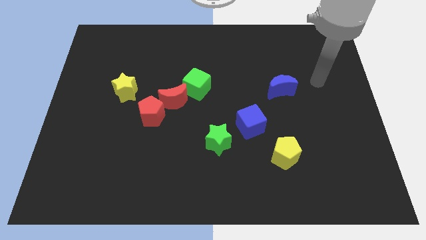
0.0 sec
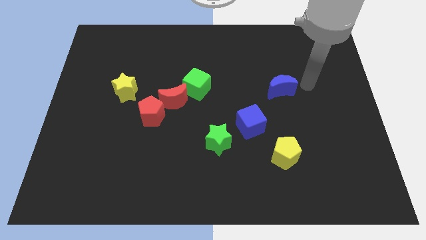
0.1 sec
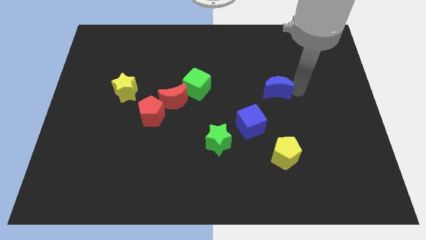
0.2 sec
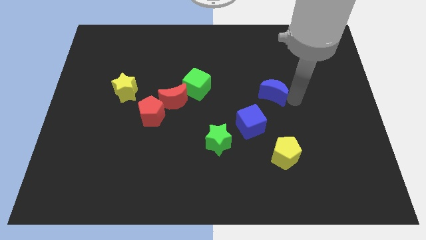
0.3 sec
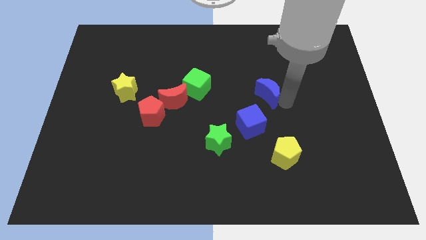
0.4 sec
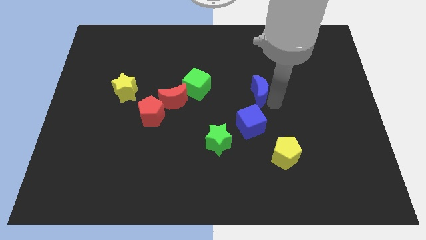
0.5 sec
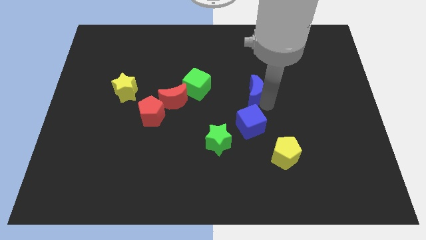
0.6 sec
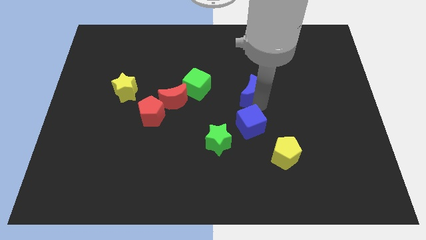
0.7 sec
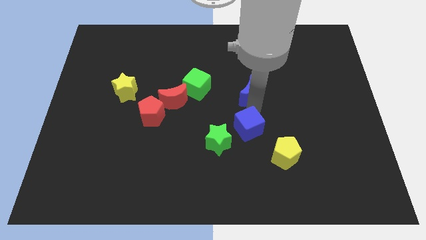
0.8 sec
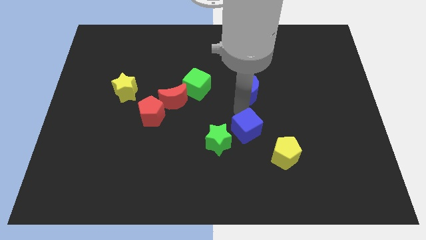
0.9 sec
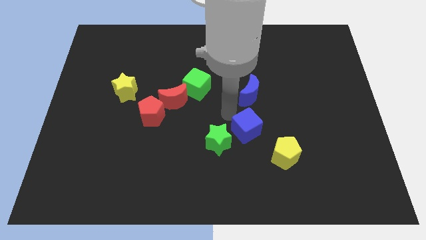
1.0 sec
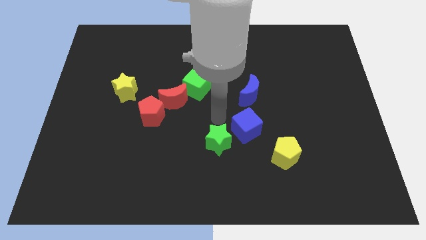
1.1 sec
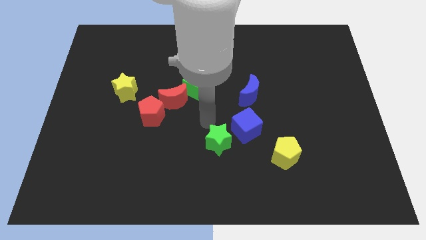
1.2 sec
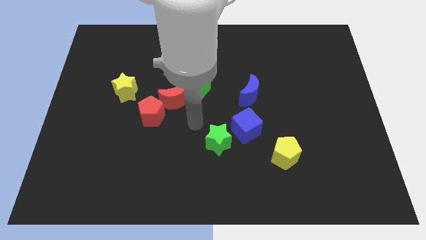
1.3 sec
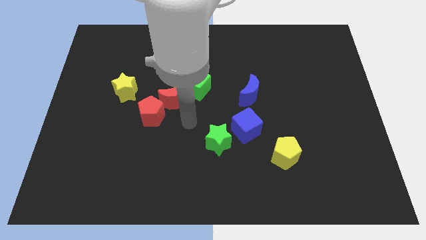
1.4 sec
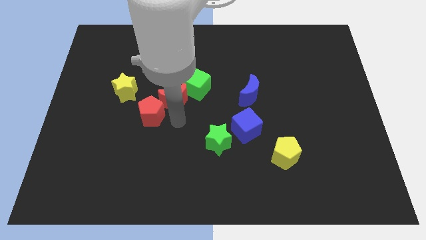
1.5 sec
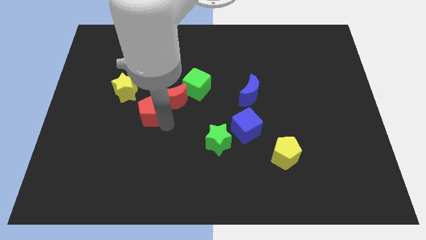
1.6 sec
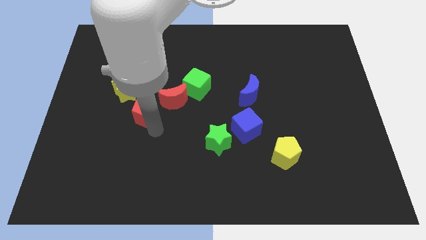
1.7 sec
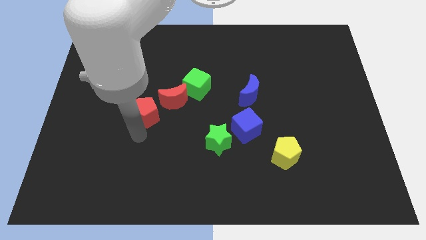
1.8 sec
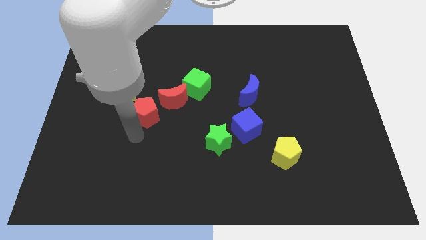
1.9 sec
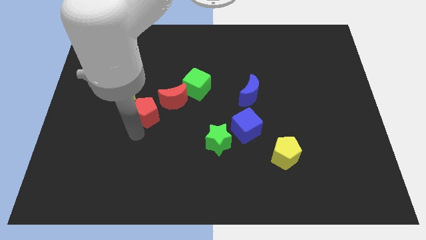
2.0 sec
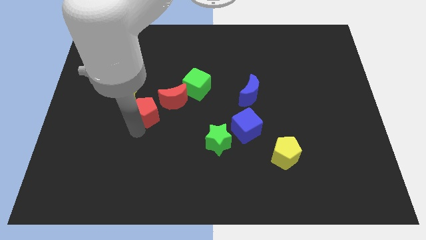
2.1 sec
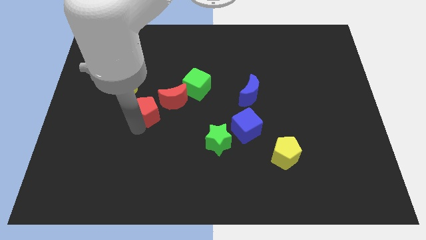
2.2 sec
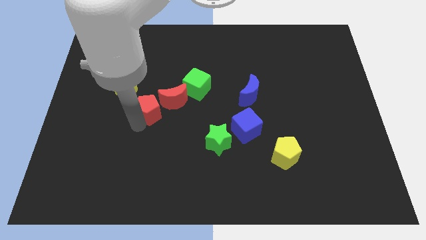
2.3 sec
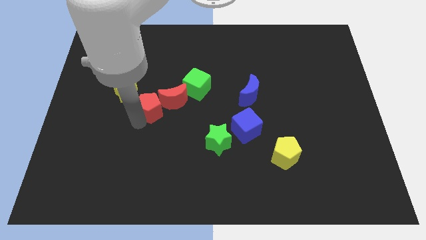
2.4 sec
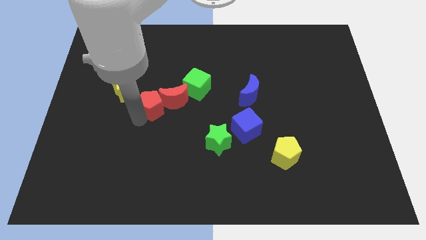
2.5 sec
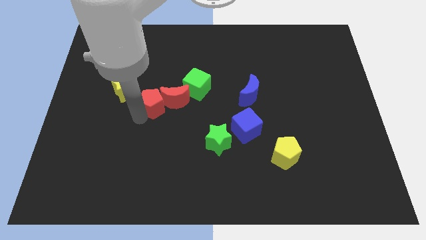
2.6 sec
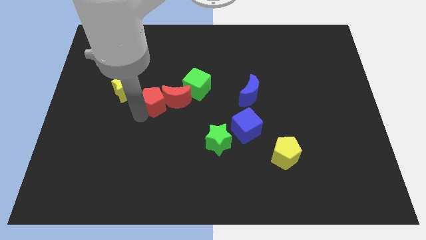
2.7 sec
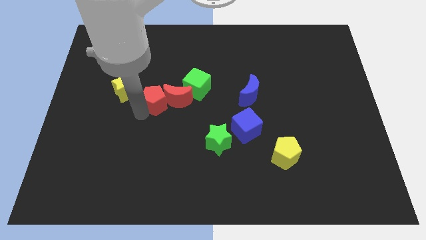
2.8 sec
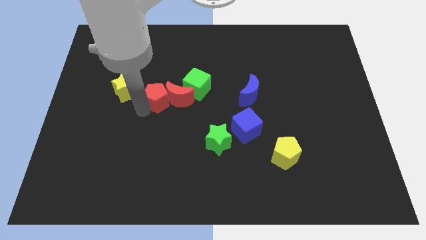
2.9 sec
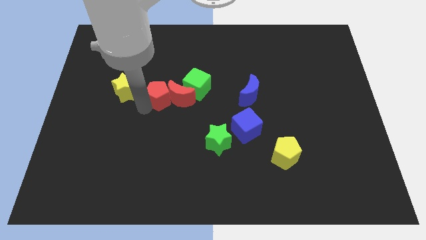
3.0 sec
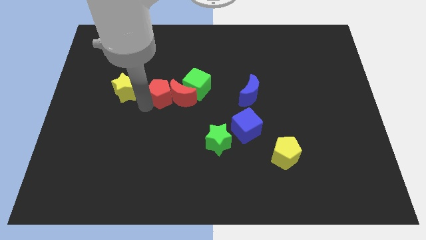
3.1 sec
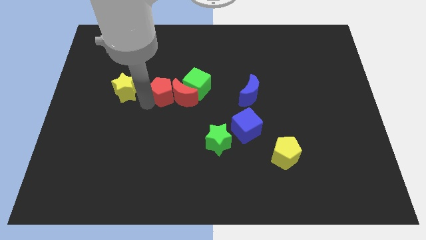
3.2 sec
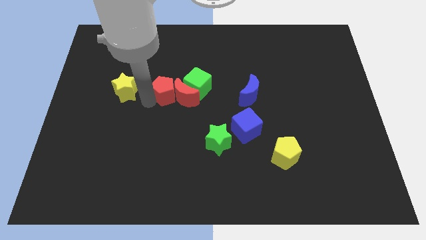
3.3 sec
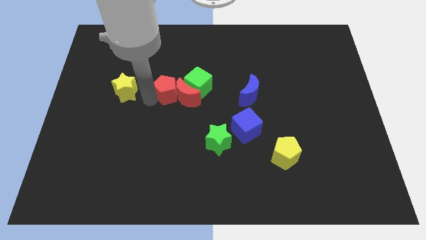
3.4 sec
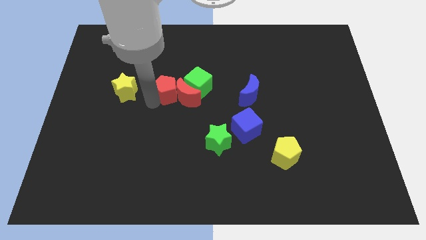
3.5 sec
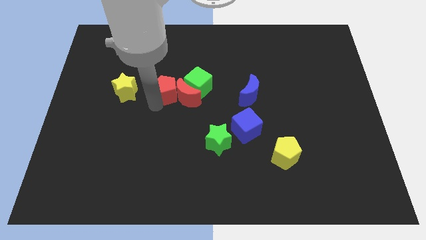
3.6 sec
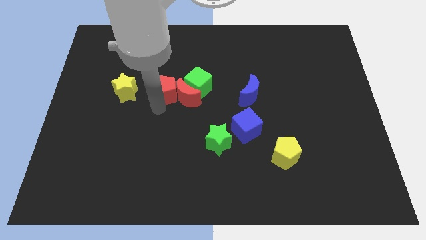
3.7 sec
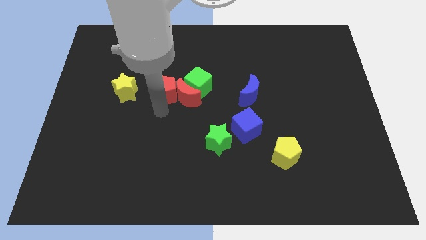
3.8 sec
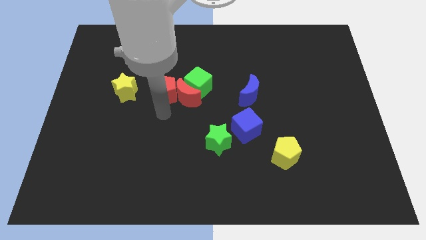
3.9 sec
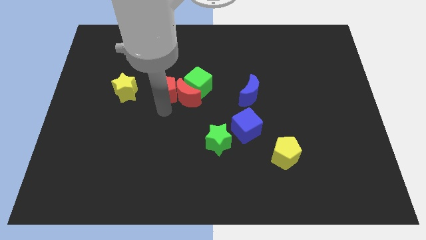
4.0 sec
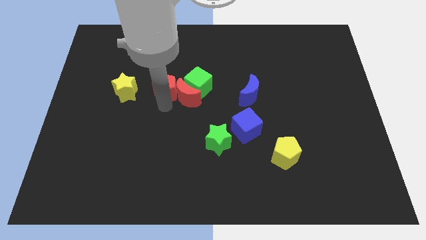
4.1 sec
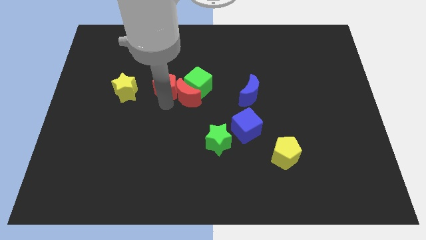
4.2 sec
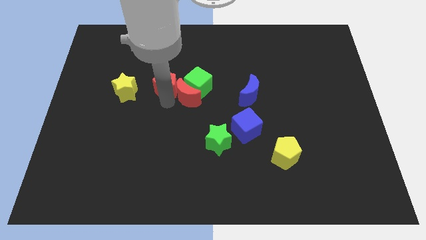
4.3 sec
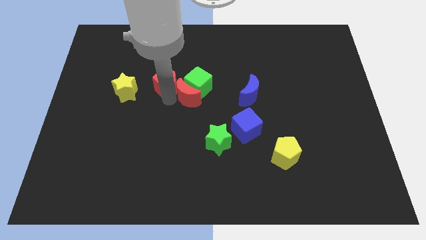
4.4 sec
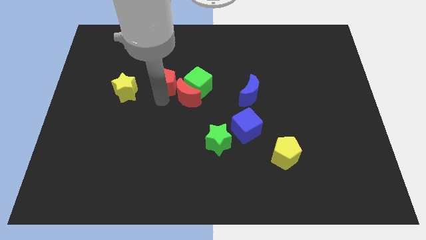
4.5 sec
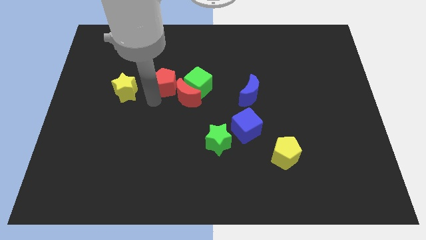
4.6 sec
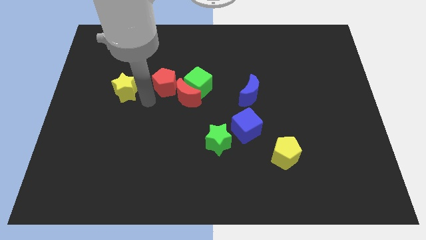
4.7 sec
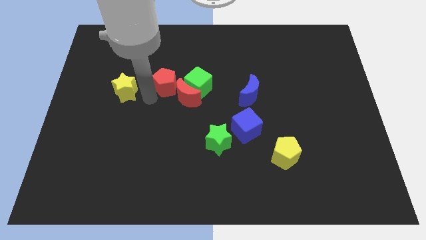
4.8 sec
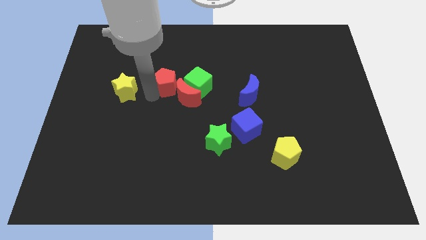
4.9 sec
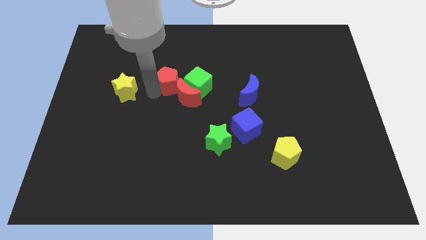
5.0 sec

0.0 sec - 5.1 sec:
put the red pentagon above the red moon

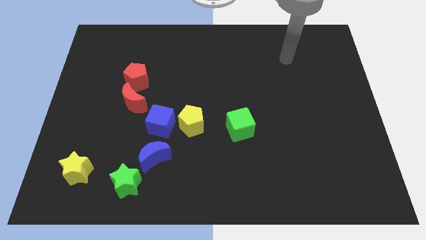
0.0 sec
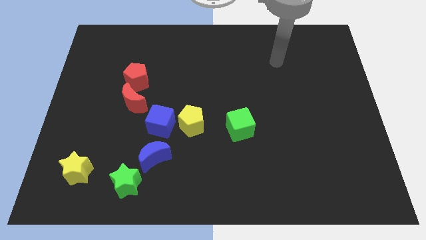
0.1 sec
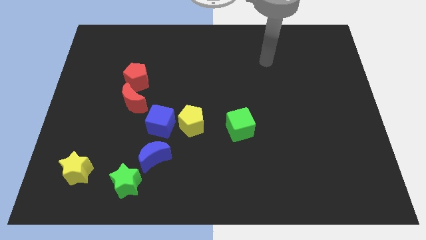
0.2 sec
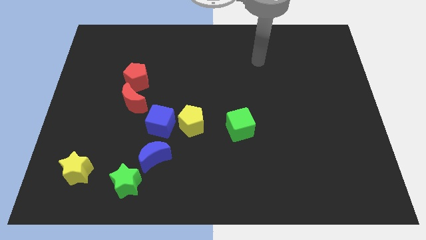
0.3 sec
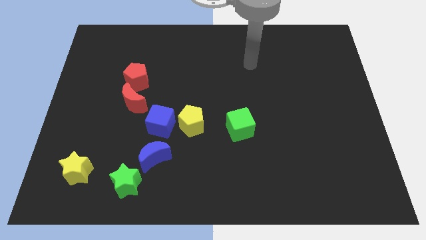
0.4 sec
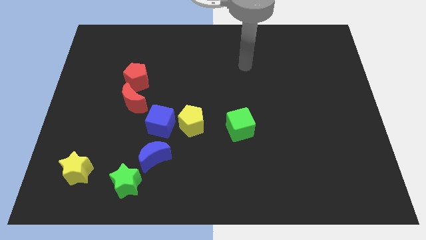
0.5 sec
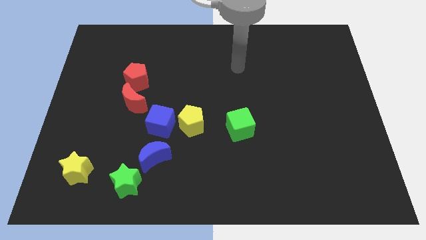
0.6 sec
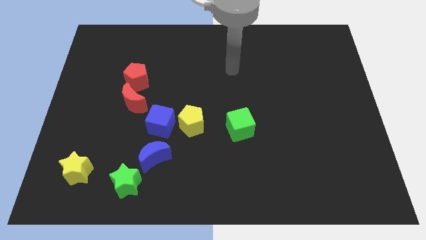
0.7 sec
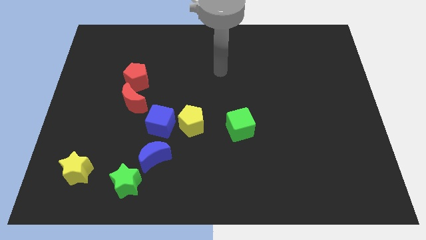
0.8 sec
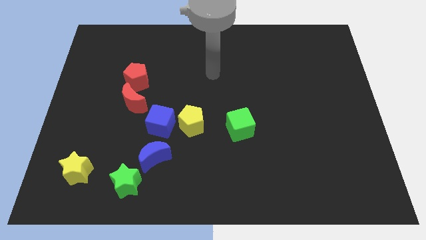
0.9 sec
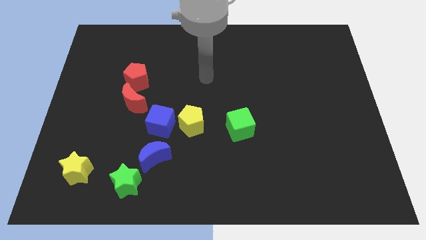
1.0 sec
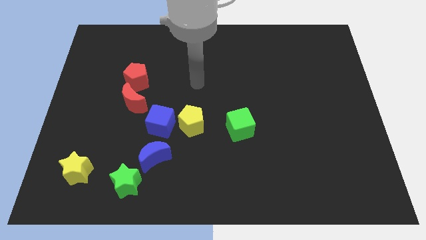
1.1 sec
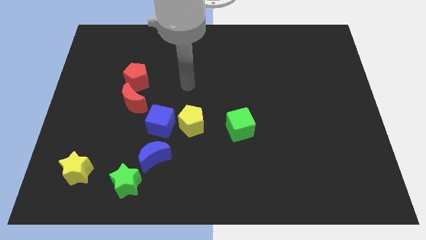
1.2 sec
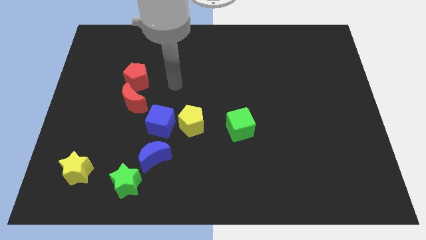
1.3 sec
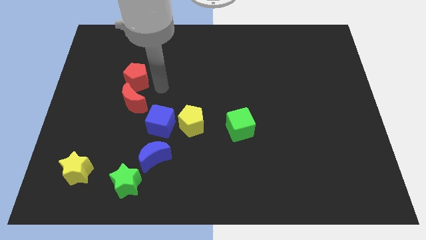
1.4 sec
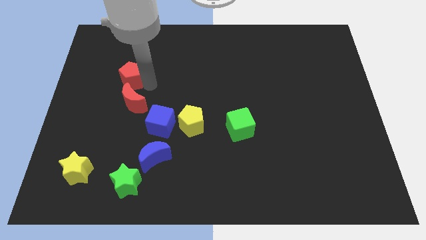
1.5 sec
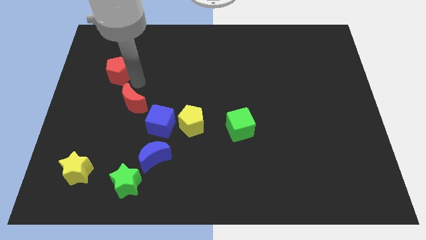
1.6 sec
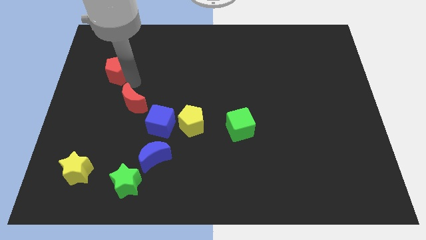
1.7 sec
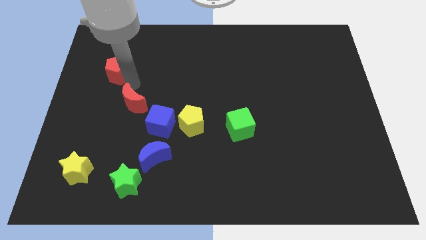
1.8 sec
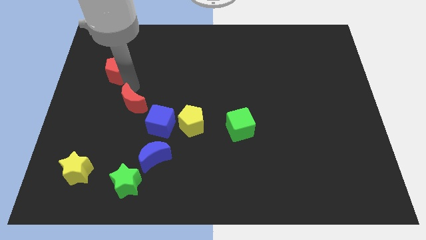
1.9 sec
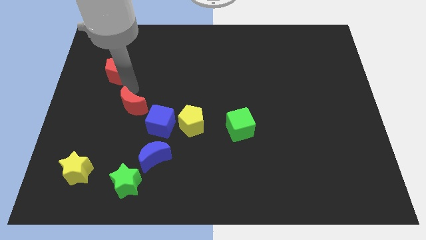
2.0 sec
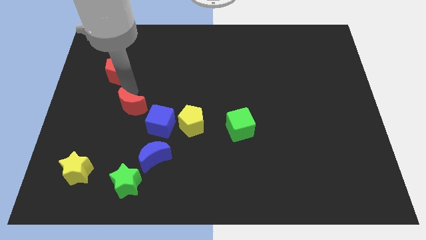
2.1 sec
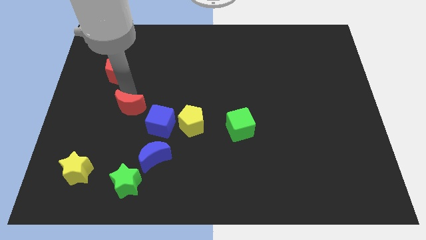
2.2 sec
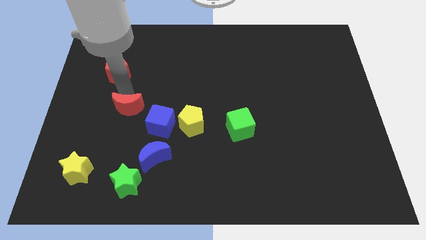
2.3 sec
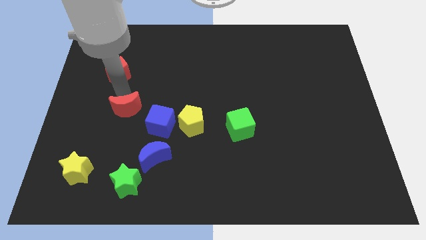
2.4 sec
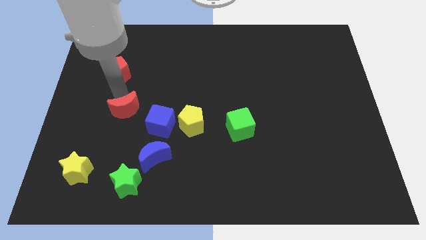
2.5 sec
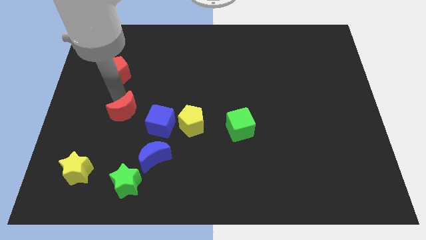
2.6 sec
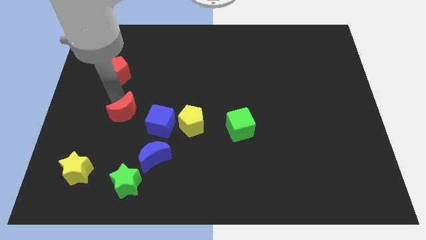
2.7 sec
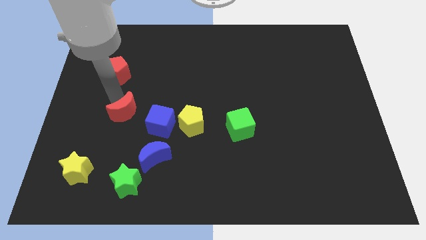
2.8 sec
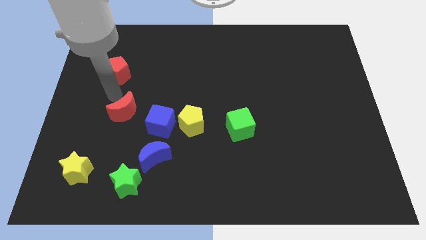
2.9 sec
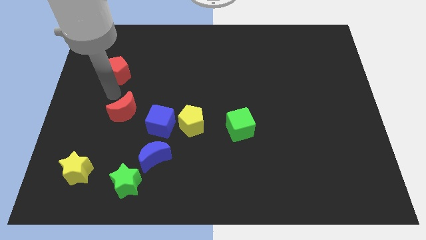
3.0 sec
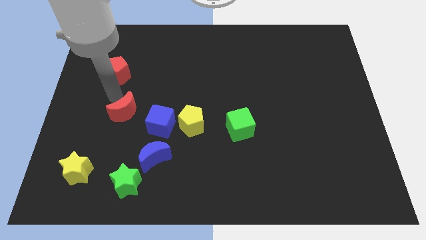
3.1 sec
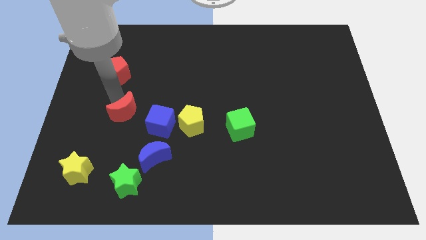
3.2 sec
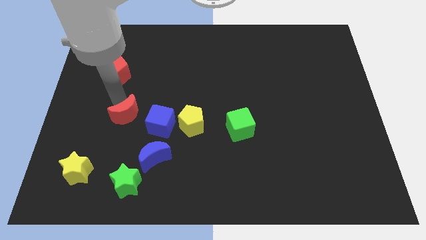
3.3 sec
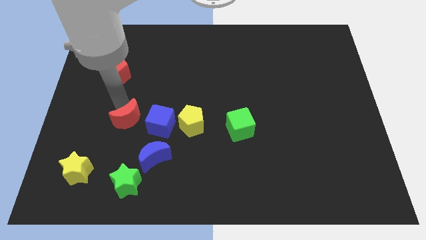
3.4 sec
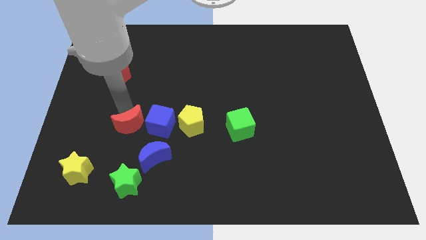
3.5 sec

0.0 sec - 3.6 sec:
slide the red moon to the bottom left of the blue cube
